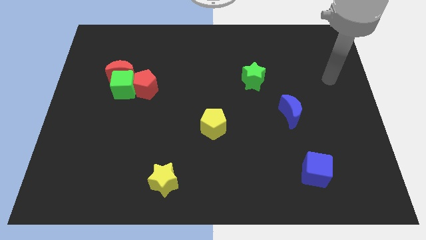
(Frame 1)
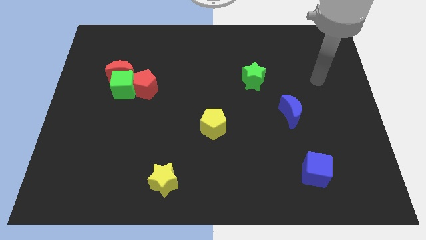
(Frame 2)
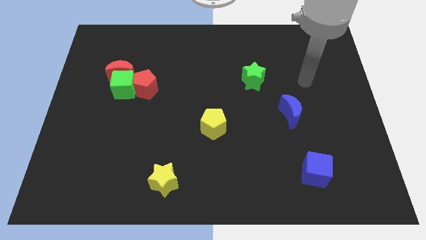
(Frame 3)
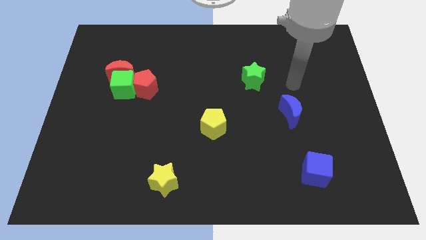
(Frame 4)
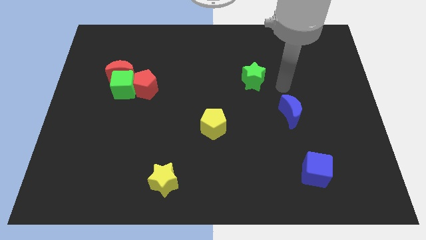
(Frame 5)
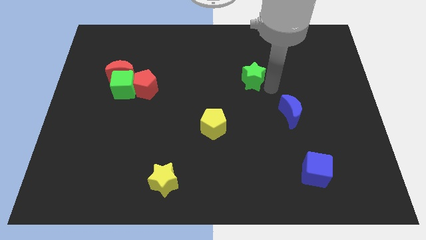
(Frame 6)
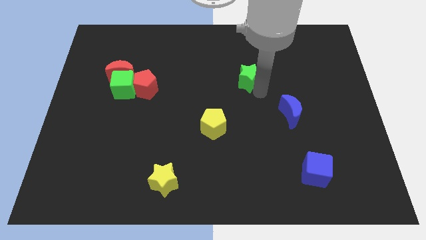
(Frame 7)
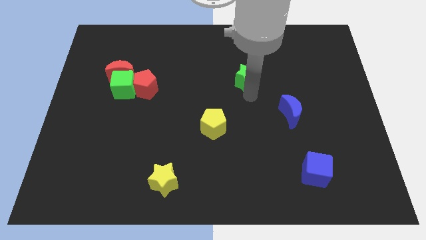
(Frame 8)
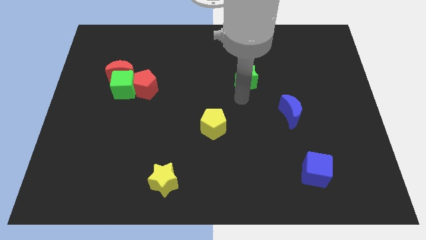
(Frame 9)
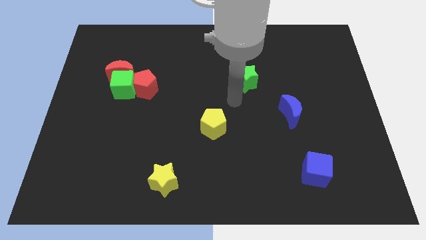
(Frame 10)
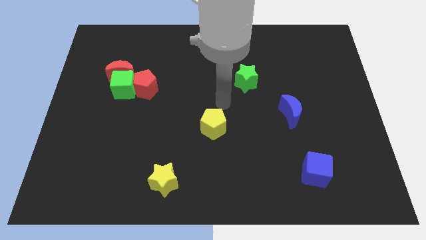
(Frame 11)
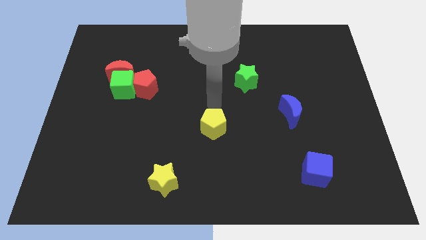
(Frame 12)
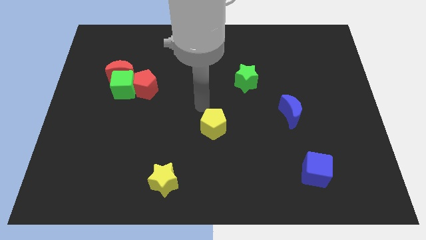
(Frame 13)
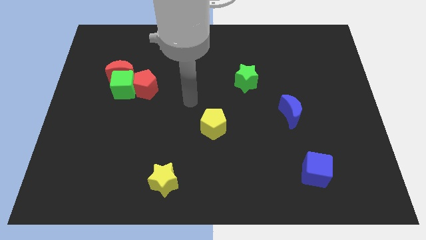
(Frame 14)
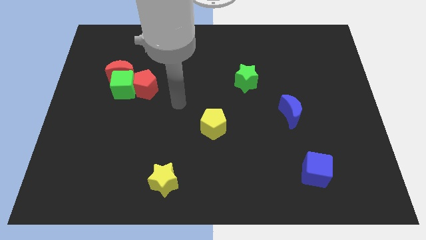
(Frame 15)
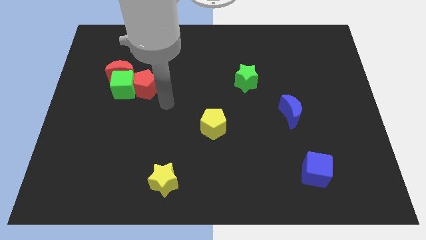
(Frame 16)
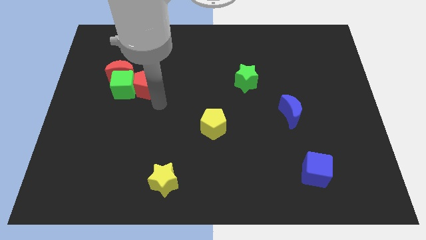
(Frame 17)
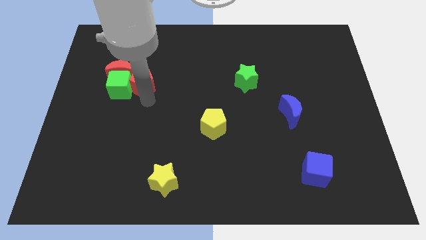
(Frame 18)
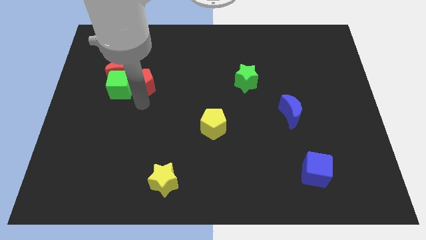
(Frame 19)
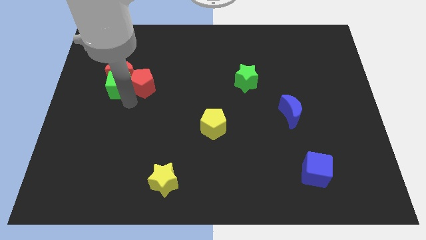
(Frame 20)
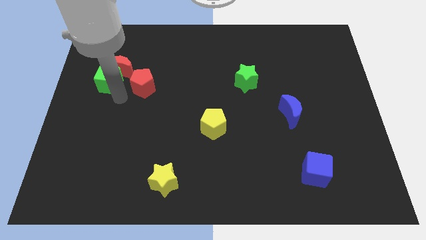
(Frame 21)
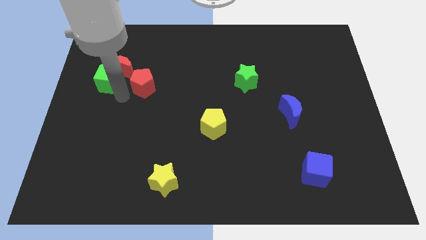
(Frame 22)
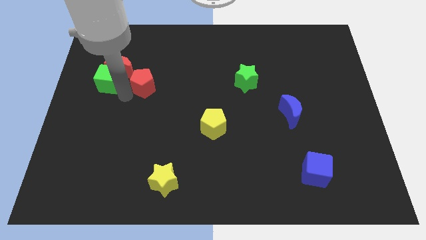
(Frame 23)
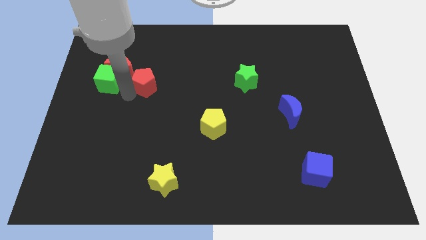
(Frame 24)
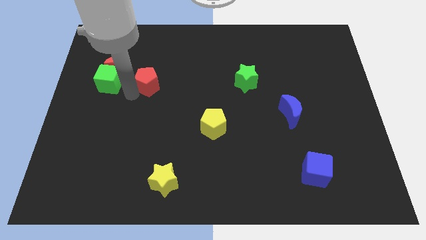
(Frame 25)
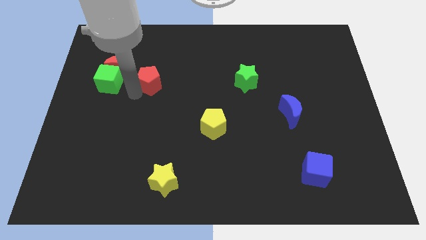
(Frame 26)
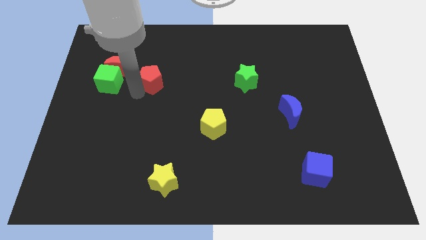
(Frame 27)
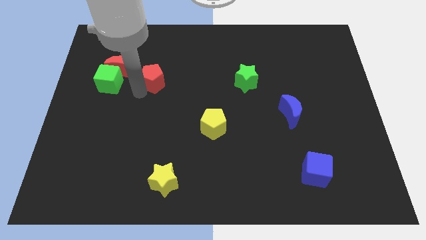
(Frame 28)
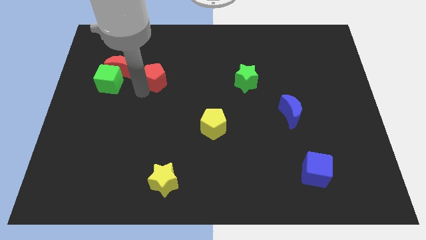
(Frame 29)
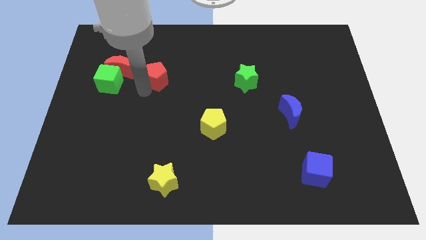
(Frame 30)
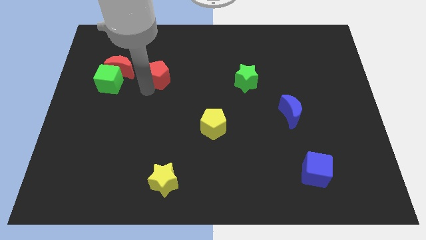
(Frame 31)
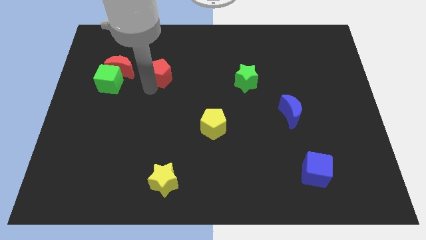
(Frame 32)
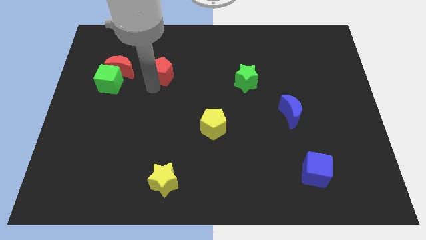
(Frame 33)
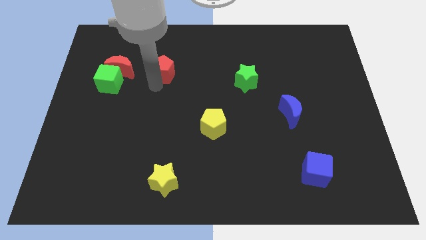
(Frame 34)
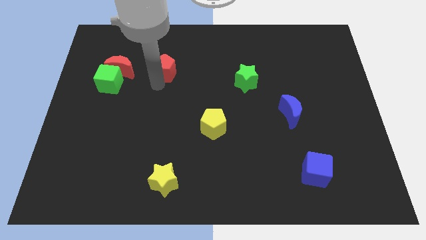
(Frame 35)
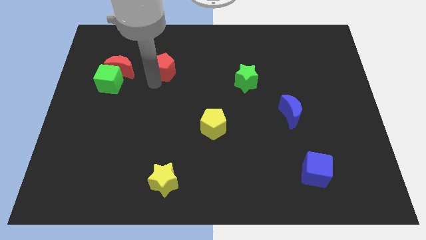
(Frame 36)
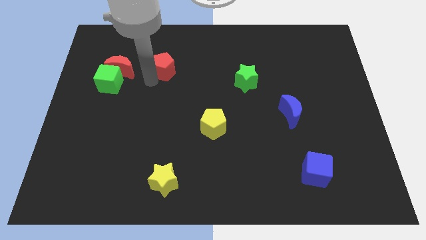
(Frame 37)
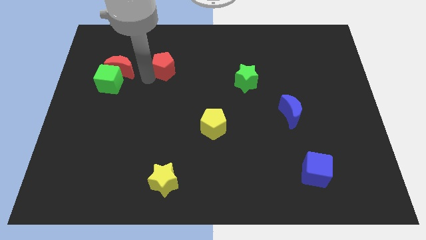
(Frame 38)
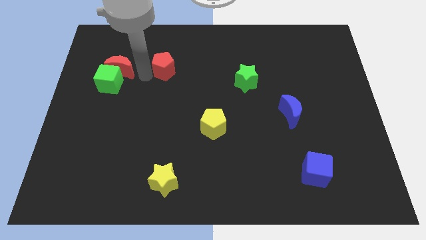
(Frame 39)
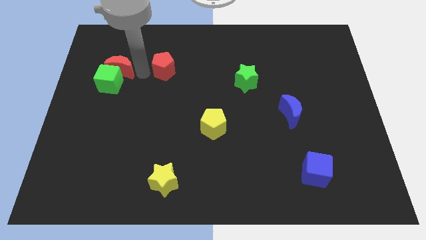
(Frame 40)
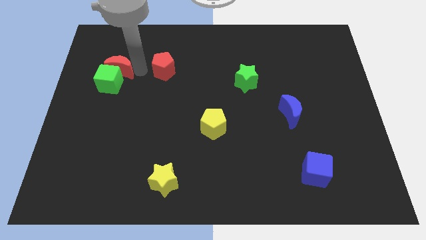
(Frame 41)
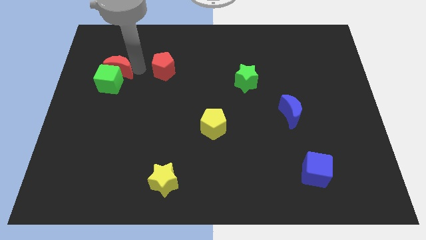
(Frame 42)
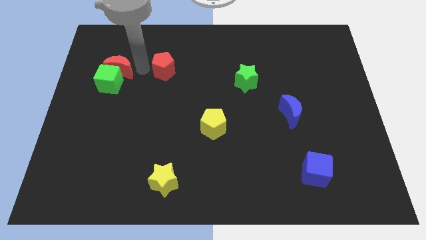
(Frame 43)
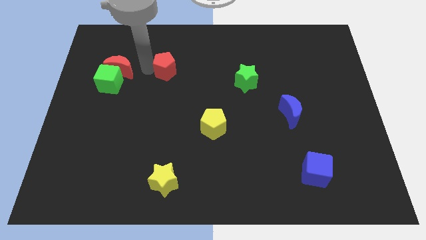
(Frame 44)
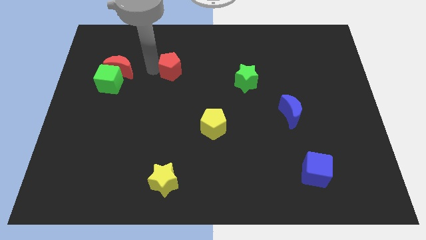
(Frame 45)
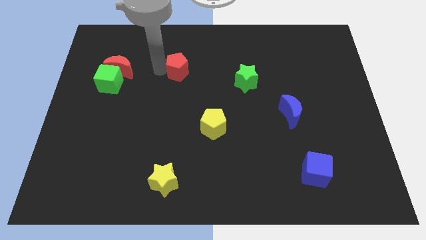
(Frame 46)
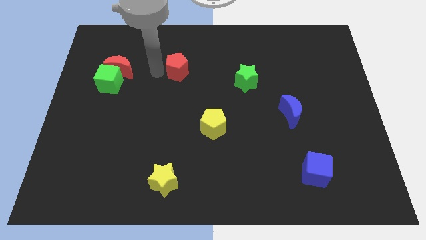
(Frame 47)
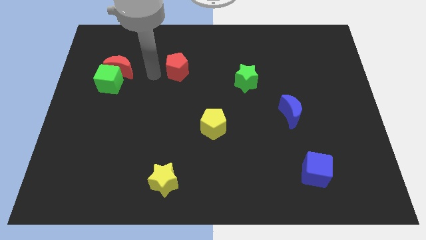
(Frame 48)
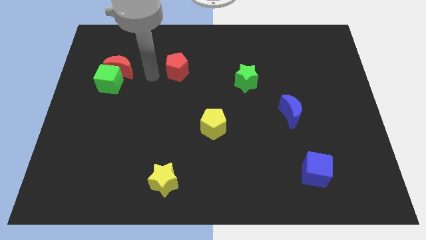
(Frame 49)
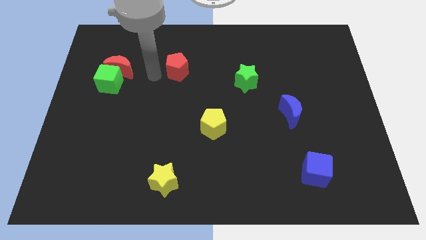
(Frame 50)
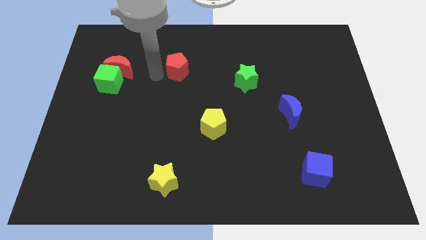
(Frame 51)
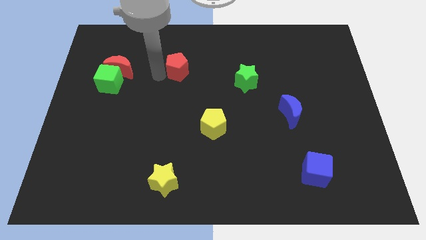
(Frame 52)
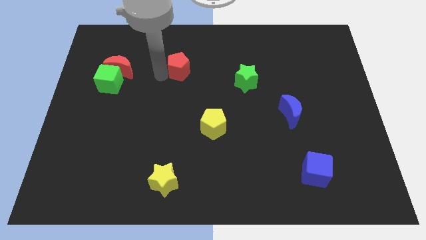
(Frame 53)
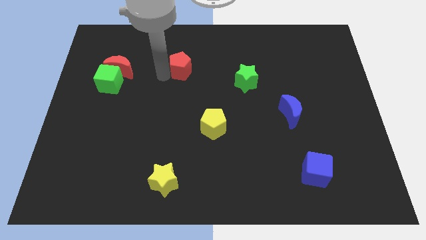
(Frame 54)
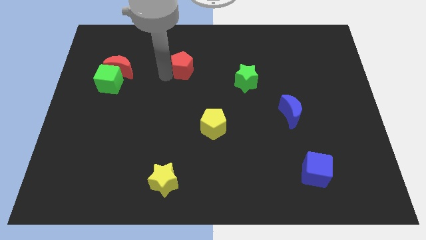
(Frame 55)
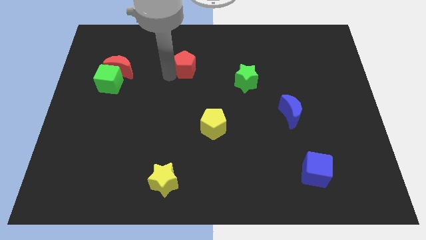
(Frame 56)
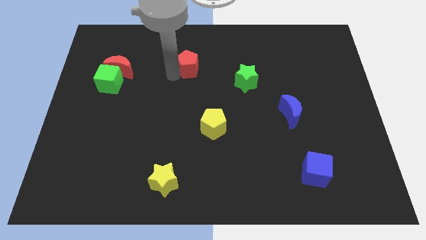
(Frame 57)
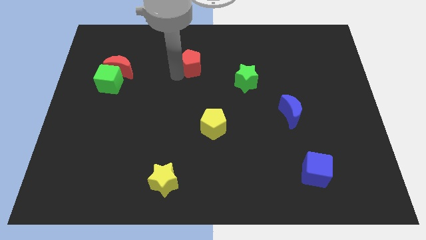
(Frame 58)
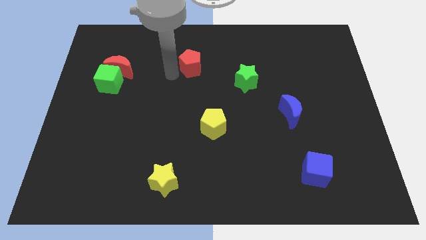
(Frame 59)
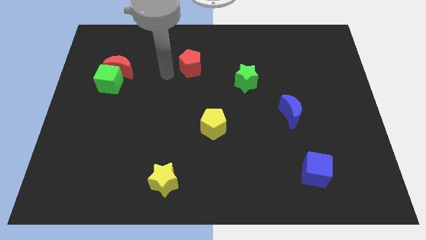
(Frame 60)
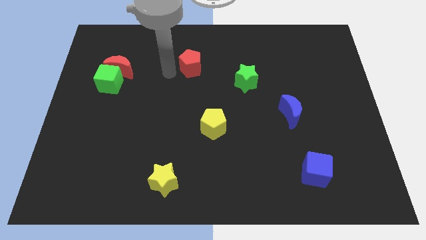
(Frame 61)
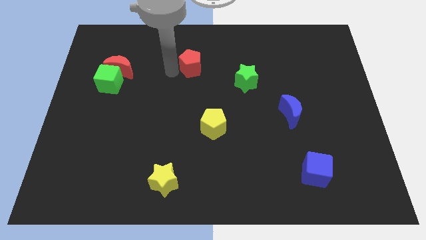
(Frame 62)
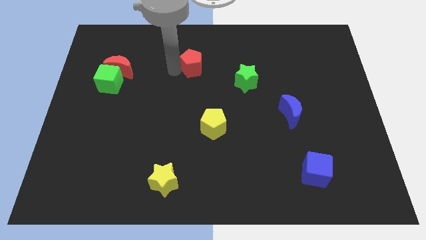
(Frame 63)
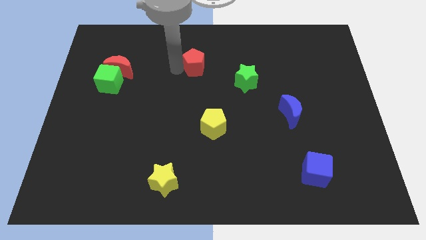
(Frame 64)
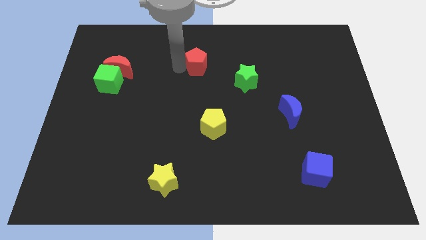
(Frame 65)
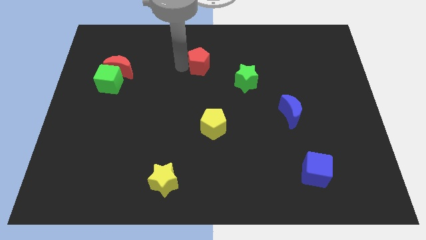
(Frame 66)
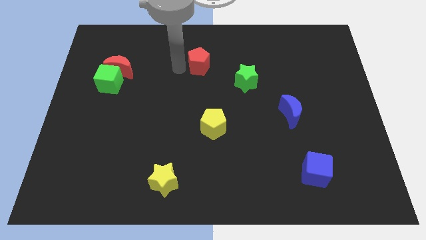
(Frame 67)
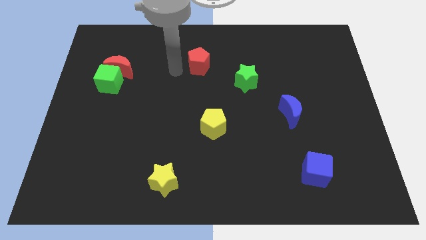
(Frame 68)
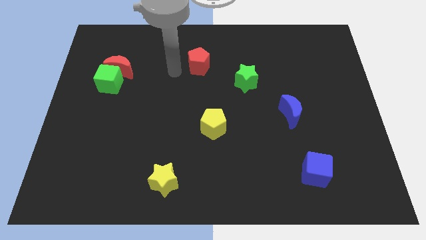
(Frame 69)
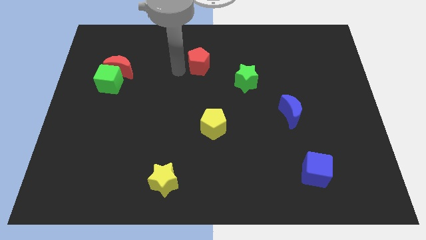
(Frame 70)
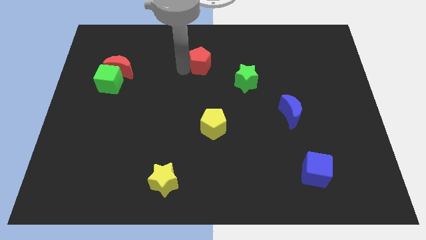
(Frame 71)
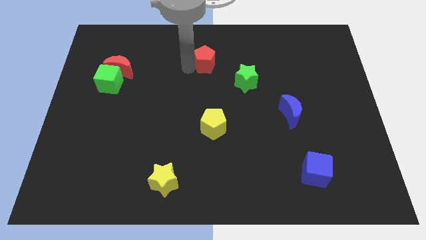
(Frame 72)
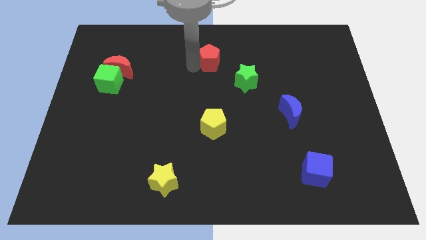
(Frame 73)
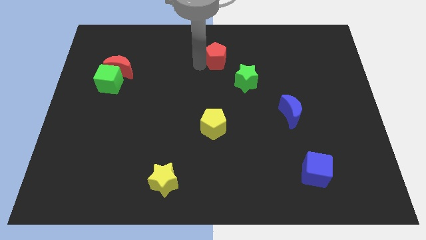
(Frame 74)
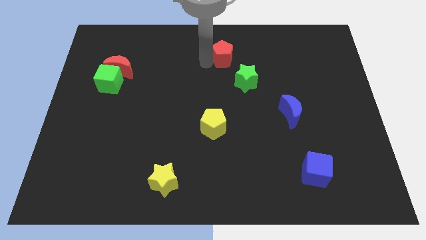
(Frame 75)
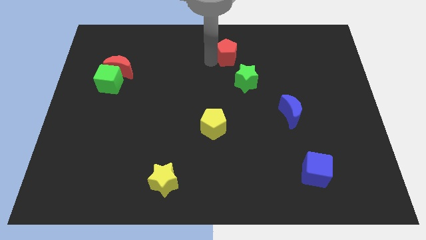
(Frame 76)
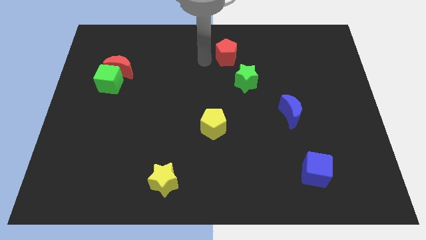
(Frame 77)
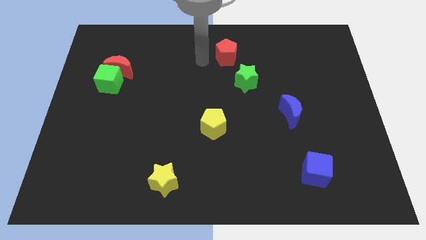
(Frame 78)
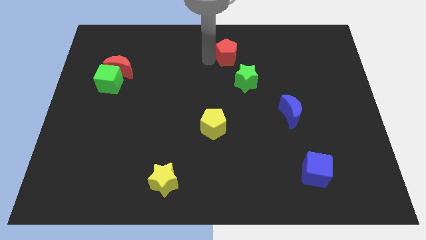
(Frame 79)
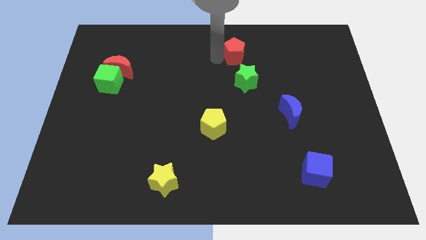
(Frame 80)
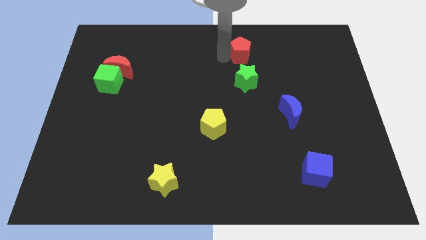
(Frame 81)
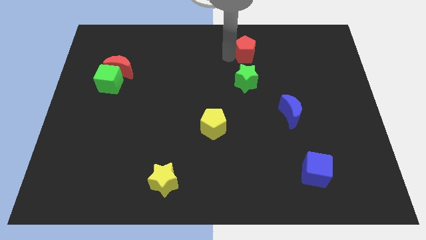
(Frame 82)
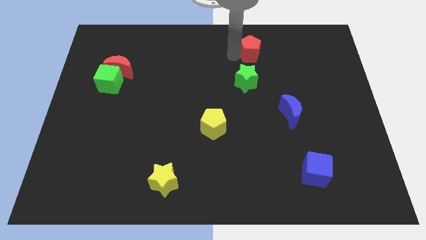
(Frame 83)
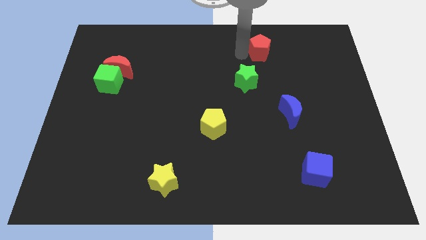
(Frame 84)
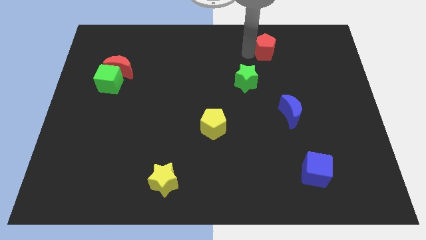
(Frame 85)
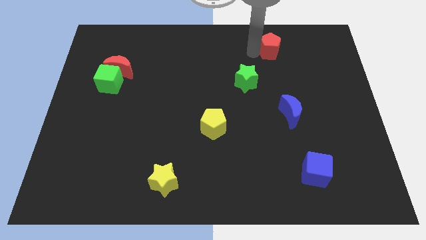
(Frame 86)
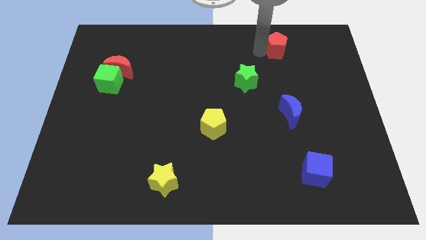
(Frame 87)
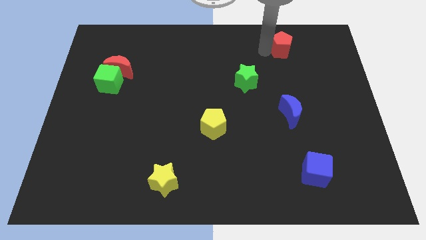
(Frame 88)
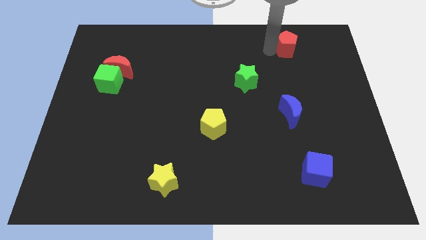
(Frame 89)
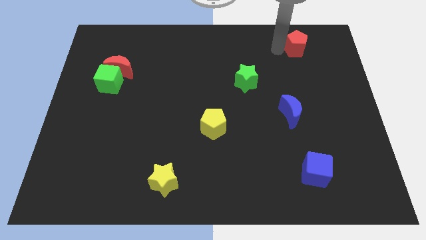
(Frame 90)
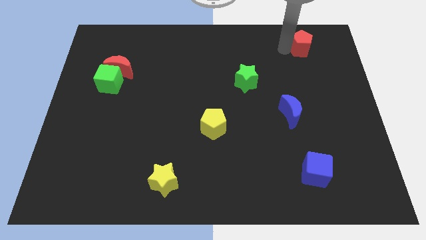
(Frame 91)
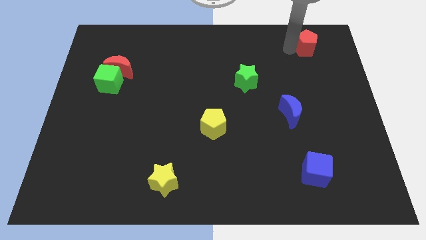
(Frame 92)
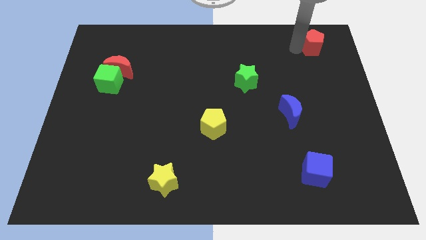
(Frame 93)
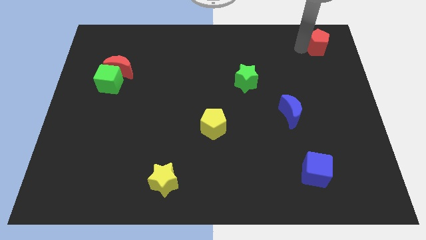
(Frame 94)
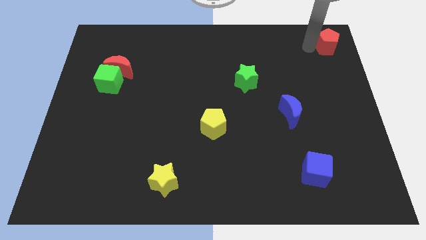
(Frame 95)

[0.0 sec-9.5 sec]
put the red pentagon to the upper right corner
